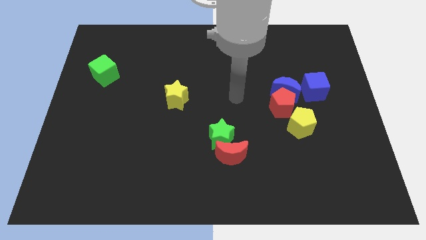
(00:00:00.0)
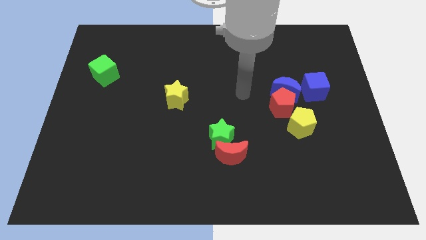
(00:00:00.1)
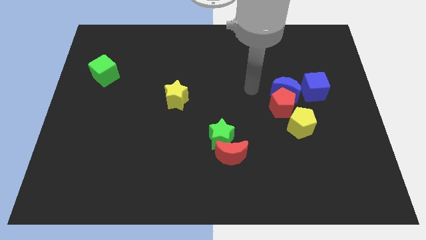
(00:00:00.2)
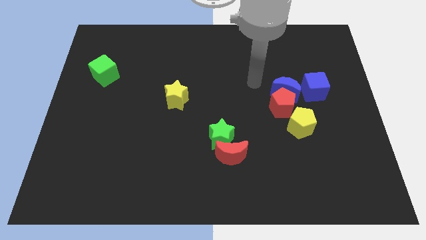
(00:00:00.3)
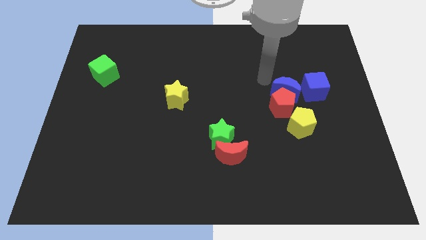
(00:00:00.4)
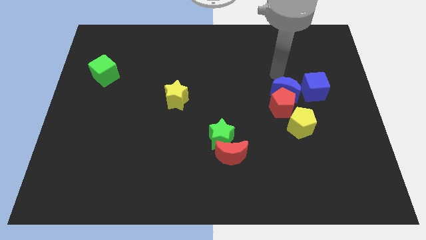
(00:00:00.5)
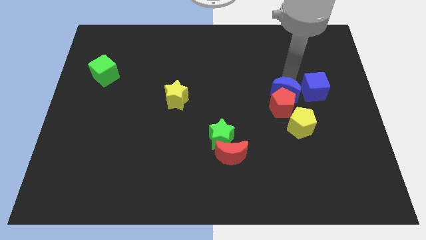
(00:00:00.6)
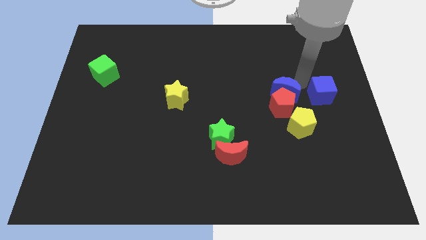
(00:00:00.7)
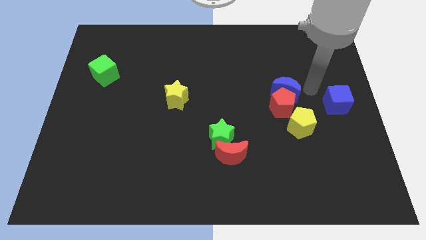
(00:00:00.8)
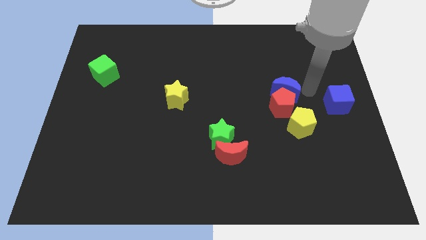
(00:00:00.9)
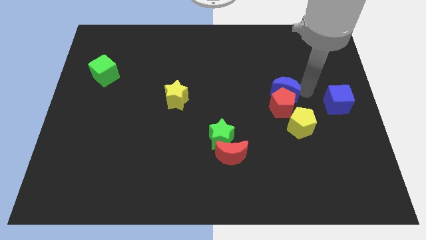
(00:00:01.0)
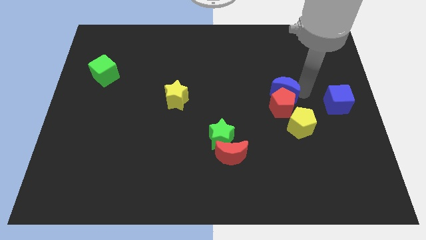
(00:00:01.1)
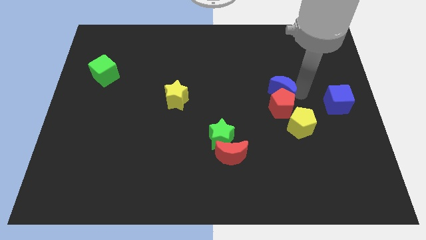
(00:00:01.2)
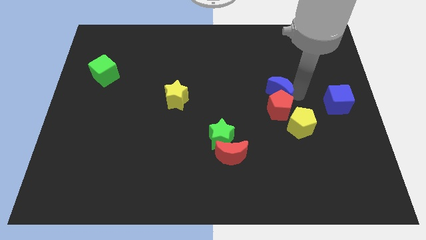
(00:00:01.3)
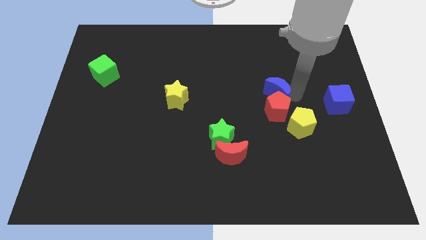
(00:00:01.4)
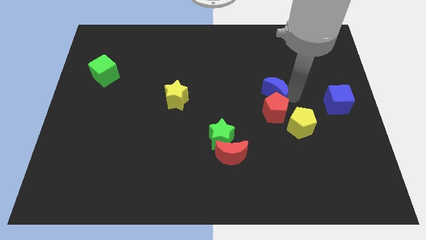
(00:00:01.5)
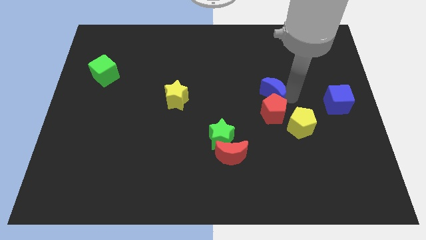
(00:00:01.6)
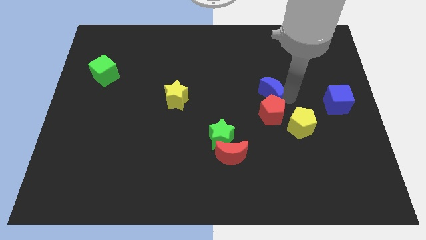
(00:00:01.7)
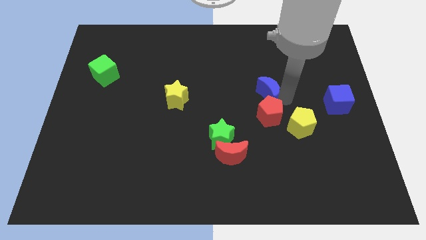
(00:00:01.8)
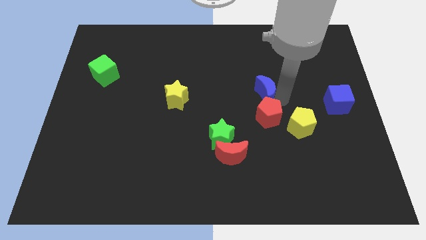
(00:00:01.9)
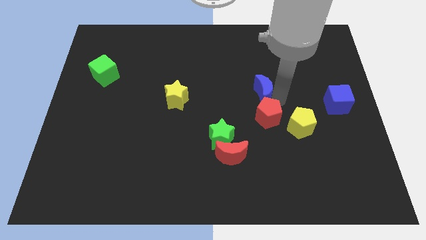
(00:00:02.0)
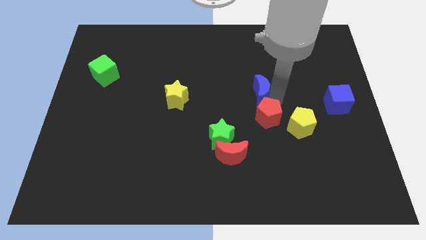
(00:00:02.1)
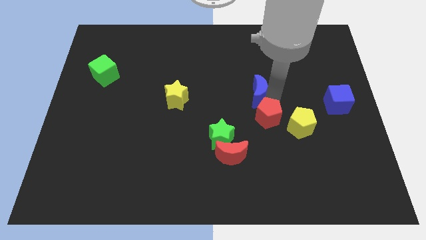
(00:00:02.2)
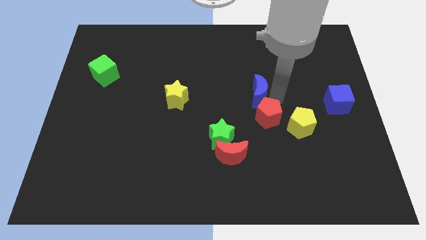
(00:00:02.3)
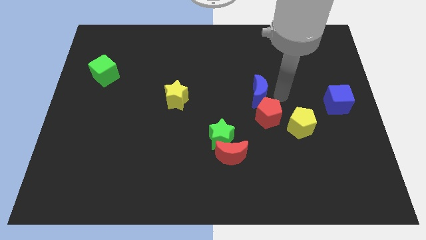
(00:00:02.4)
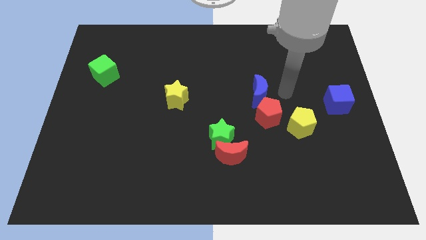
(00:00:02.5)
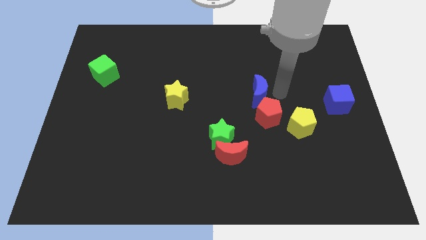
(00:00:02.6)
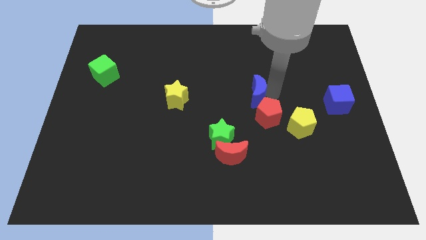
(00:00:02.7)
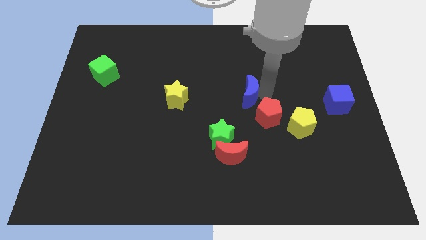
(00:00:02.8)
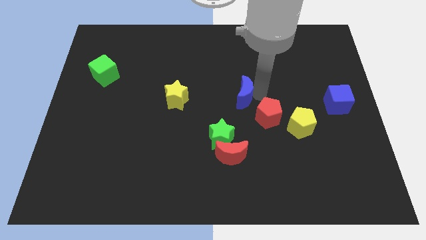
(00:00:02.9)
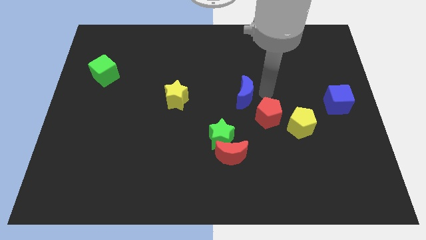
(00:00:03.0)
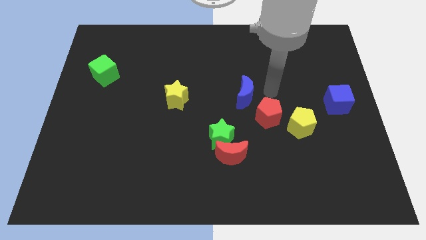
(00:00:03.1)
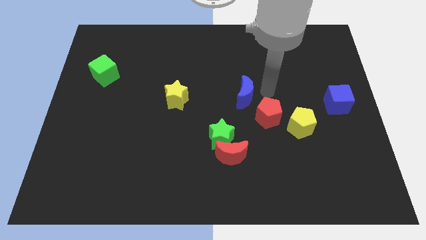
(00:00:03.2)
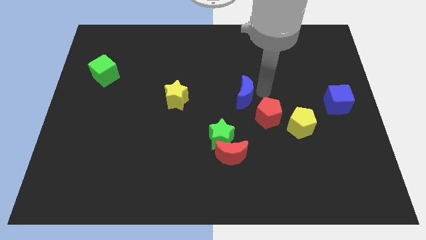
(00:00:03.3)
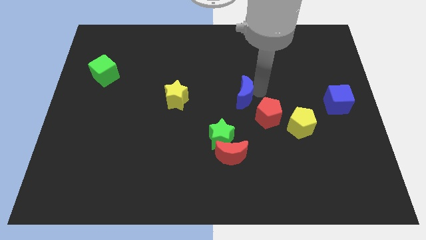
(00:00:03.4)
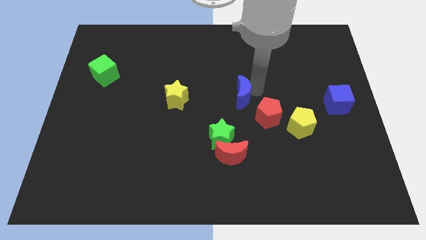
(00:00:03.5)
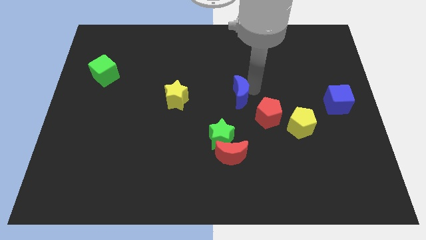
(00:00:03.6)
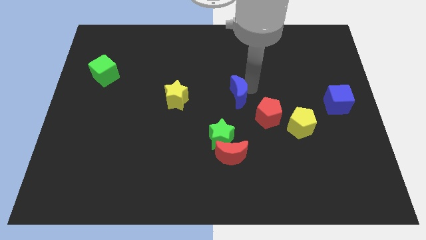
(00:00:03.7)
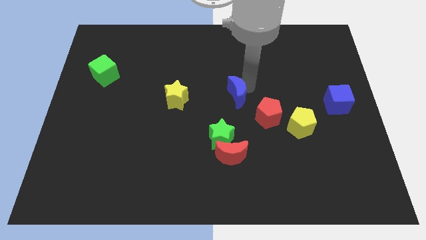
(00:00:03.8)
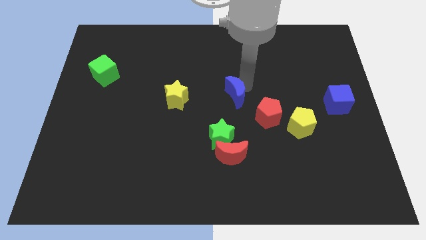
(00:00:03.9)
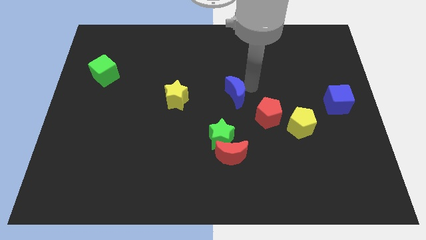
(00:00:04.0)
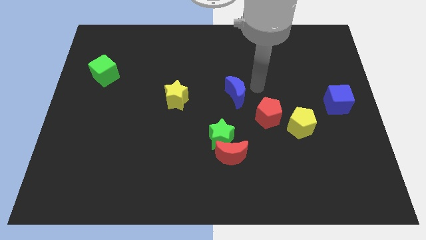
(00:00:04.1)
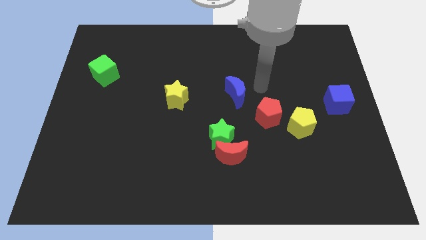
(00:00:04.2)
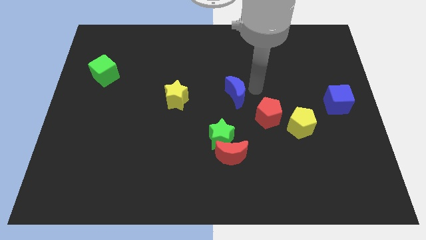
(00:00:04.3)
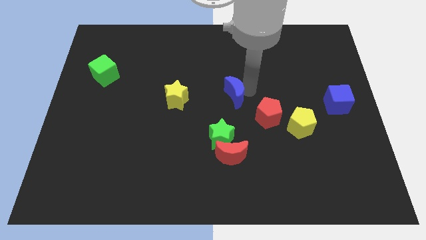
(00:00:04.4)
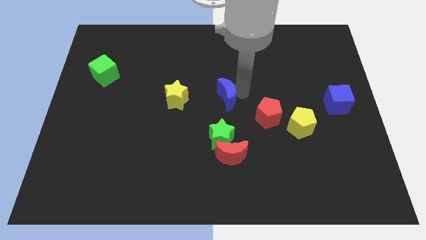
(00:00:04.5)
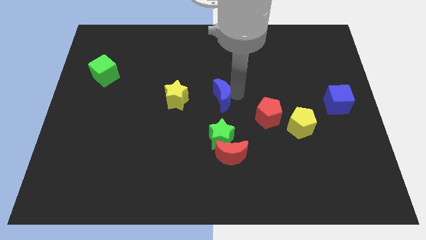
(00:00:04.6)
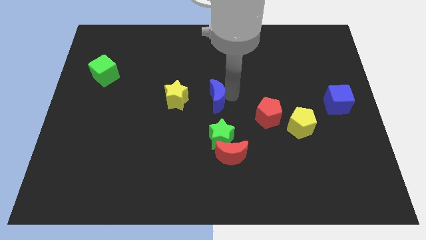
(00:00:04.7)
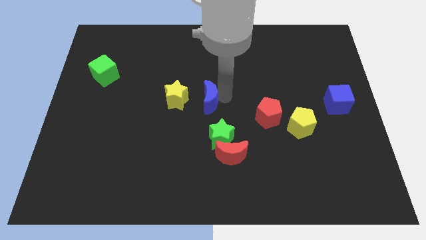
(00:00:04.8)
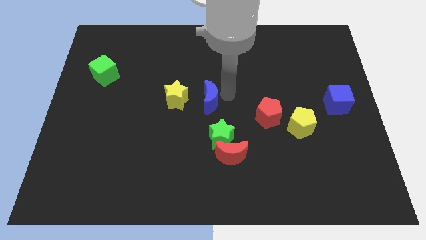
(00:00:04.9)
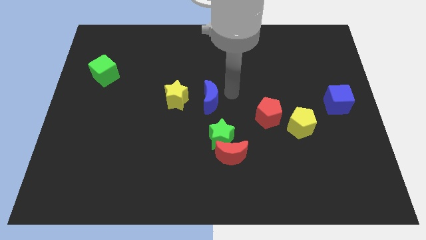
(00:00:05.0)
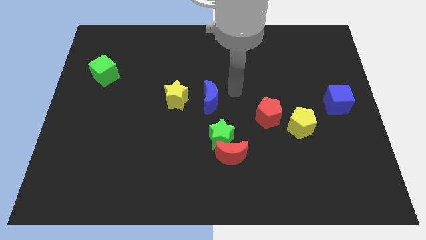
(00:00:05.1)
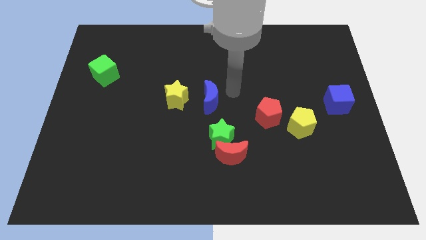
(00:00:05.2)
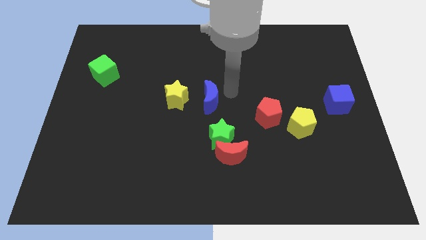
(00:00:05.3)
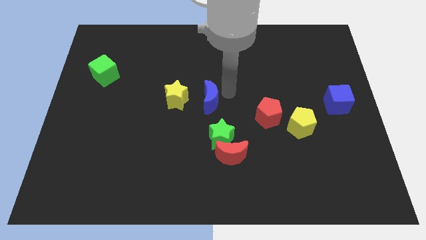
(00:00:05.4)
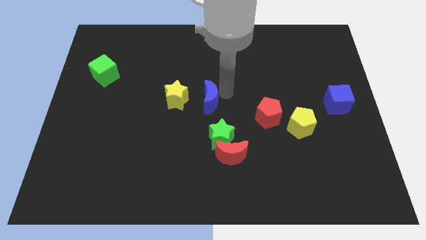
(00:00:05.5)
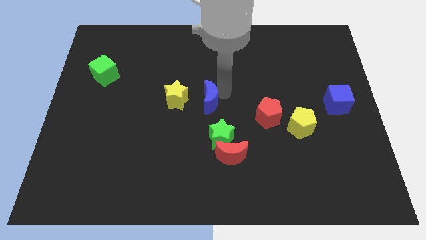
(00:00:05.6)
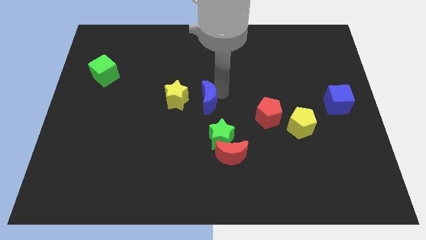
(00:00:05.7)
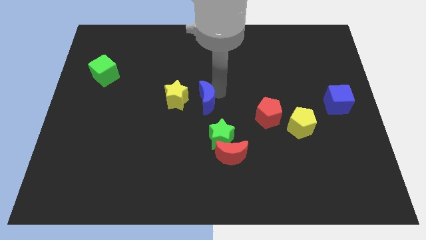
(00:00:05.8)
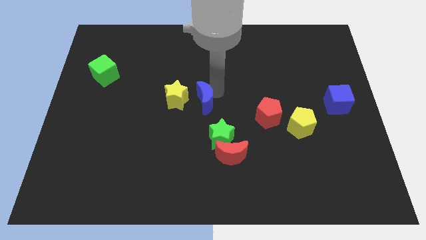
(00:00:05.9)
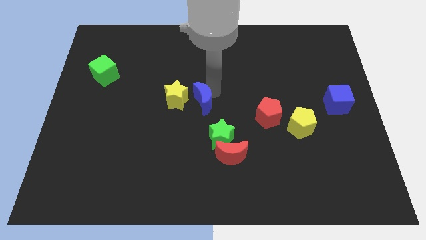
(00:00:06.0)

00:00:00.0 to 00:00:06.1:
put the blue moon next to the yellow star

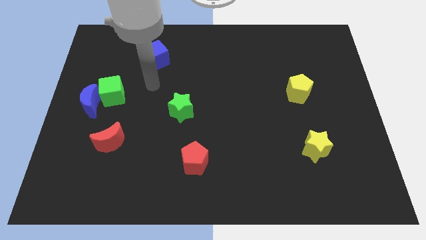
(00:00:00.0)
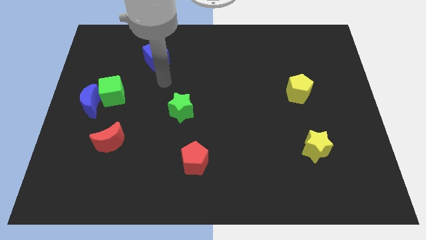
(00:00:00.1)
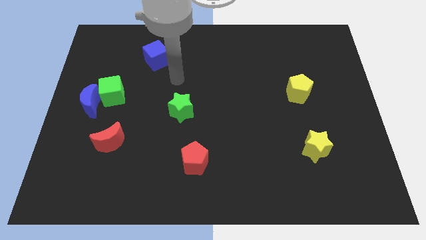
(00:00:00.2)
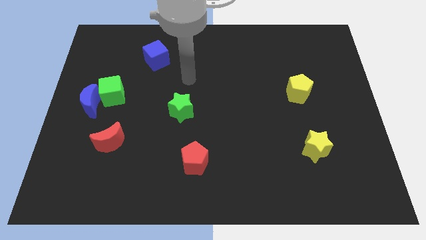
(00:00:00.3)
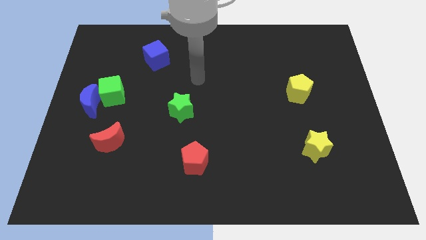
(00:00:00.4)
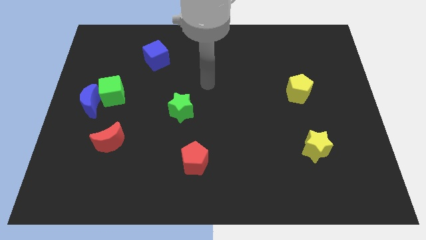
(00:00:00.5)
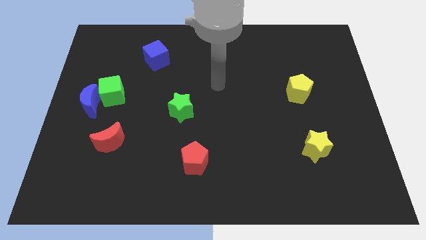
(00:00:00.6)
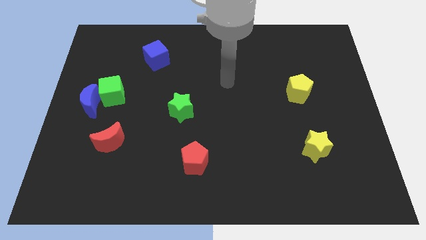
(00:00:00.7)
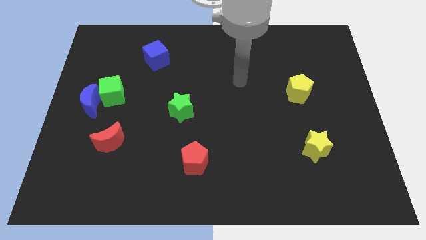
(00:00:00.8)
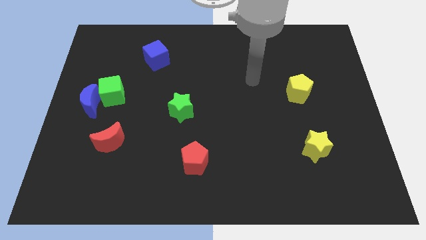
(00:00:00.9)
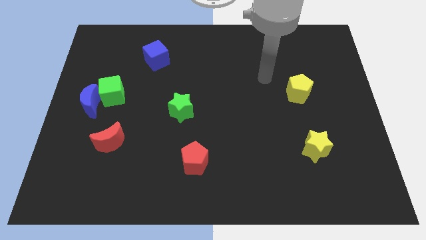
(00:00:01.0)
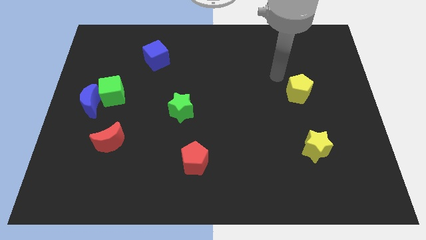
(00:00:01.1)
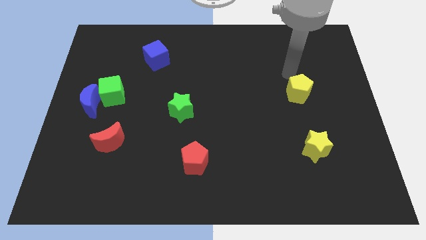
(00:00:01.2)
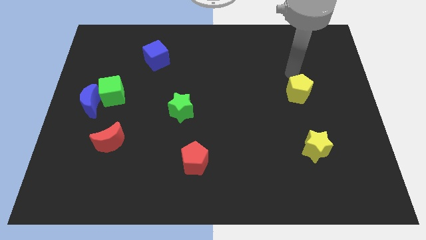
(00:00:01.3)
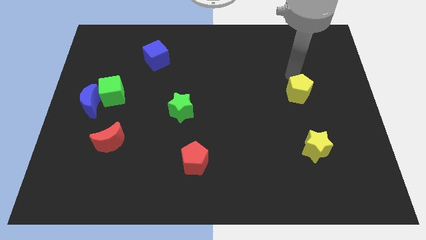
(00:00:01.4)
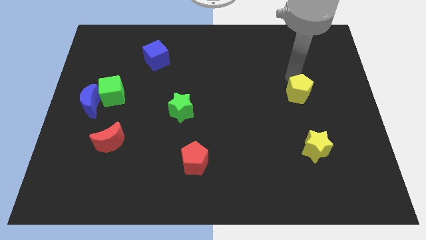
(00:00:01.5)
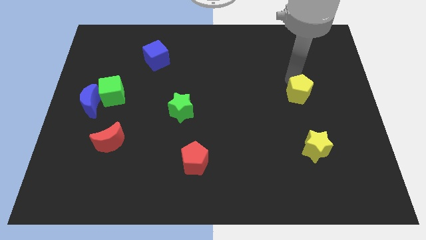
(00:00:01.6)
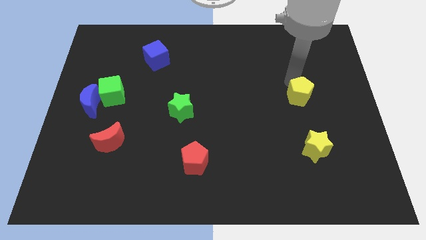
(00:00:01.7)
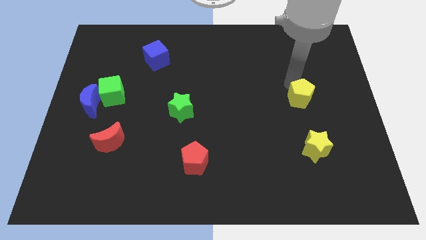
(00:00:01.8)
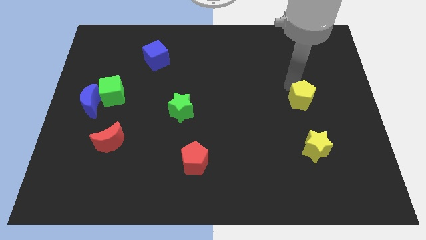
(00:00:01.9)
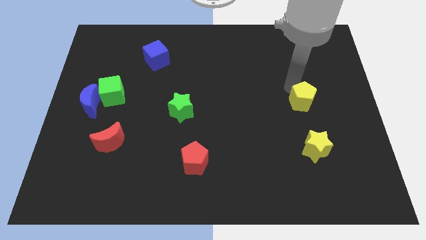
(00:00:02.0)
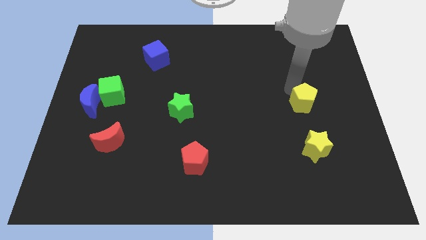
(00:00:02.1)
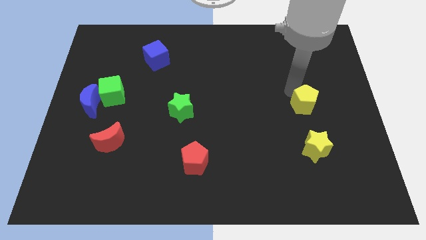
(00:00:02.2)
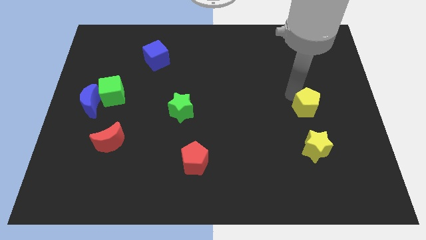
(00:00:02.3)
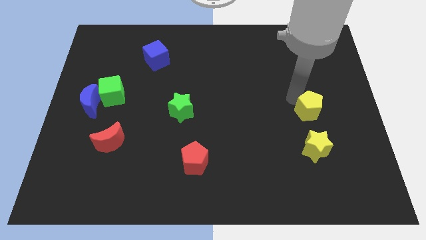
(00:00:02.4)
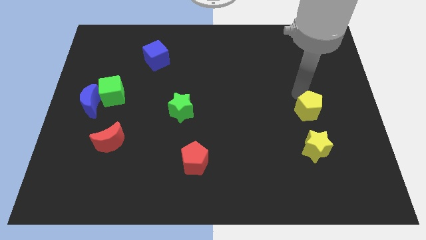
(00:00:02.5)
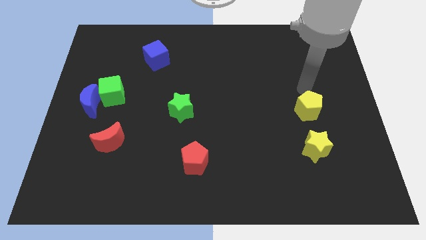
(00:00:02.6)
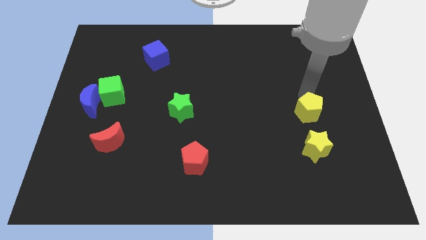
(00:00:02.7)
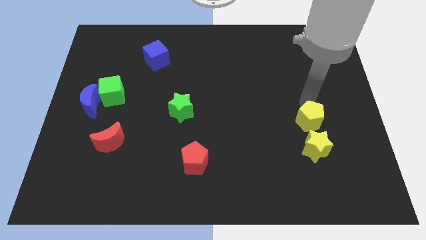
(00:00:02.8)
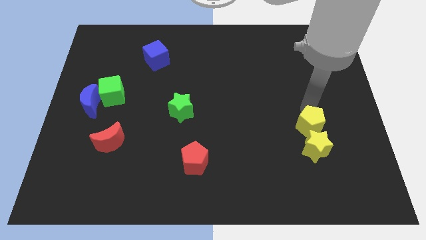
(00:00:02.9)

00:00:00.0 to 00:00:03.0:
push the yellow pentagon to the yellow star
